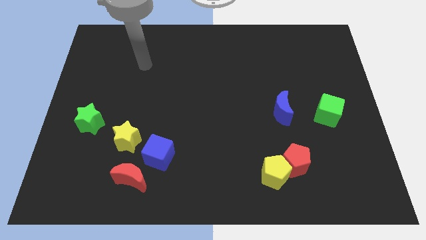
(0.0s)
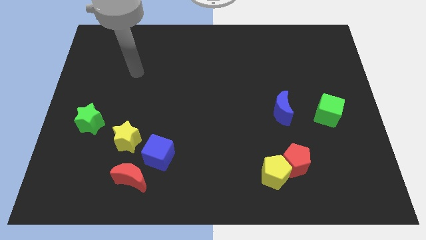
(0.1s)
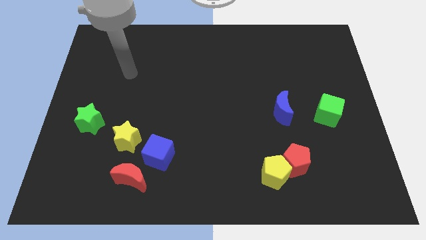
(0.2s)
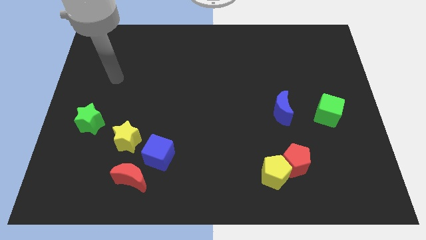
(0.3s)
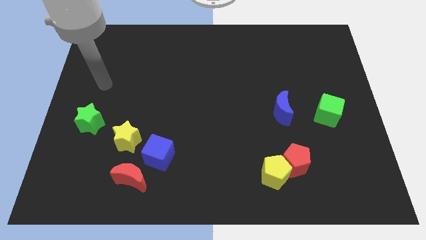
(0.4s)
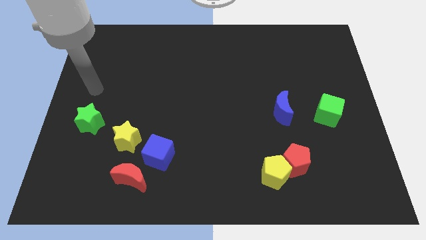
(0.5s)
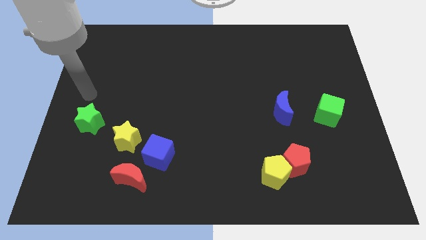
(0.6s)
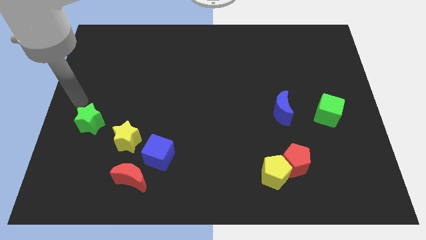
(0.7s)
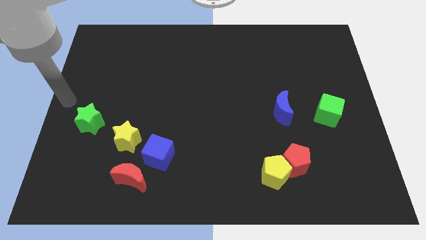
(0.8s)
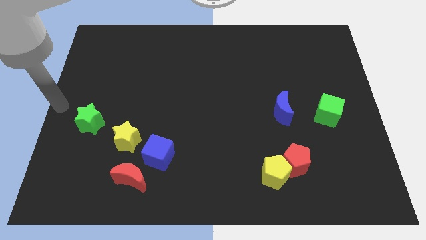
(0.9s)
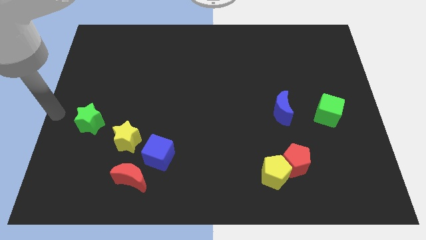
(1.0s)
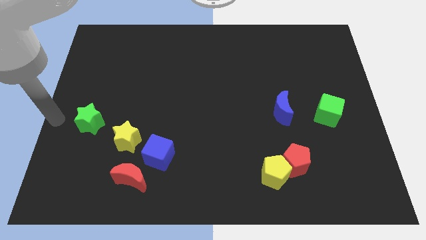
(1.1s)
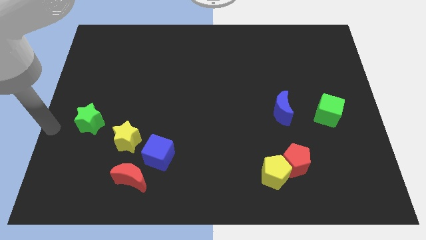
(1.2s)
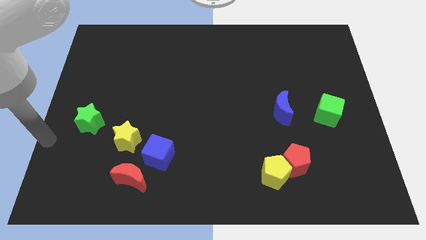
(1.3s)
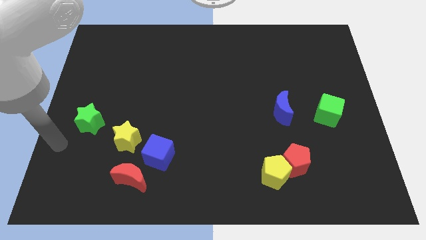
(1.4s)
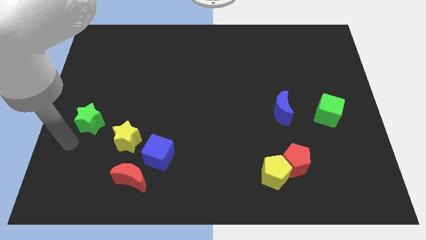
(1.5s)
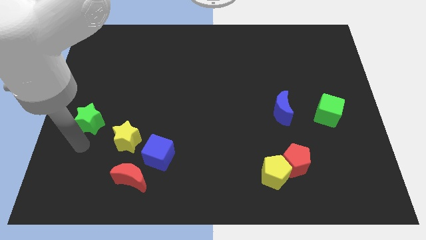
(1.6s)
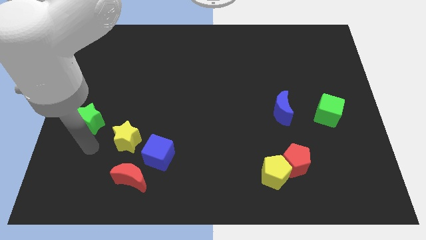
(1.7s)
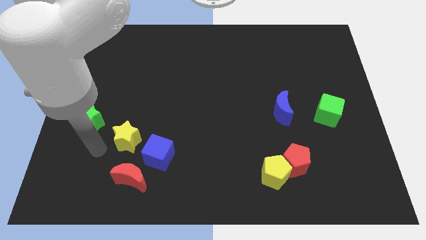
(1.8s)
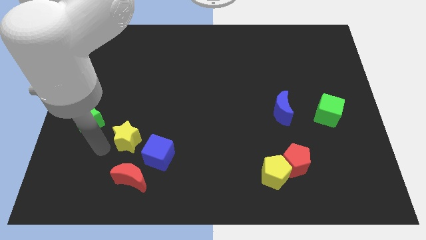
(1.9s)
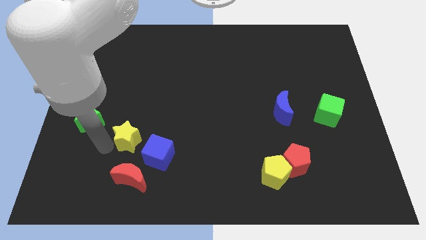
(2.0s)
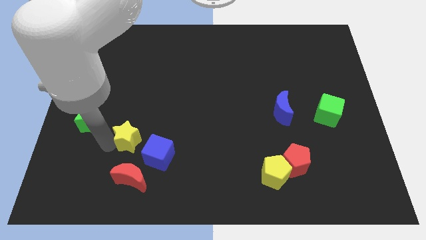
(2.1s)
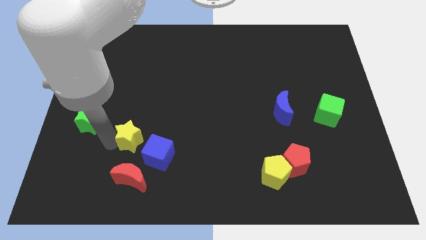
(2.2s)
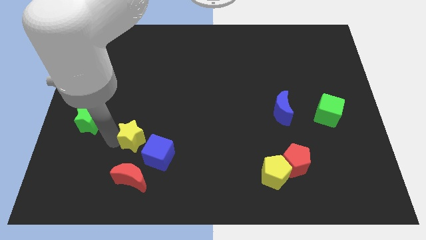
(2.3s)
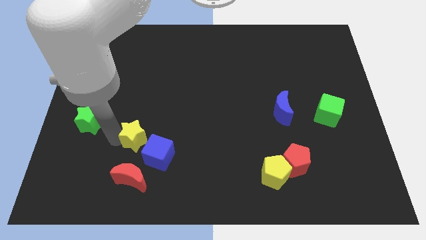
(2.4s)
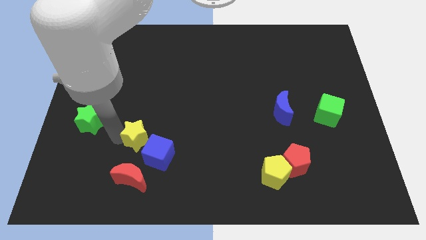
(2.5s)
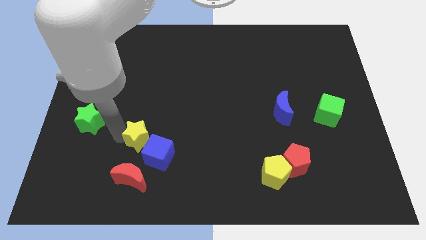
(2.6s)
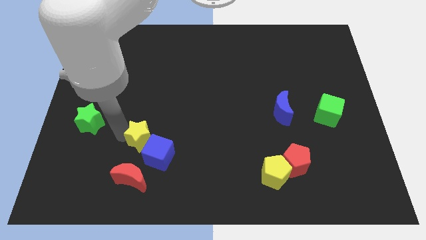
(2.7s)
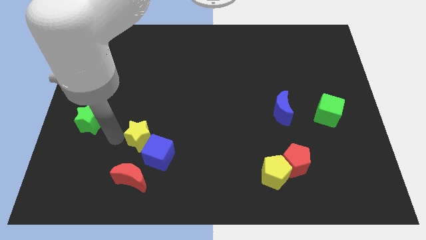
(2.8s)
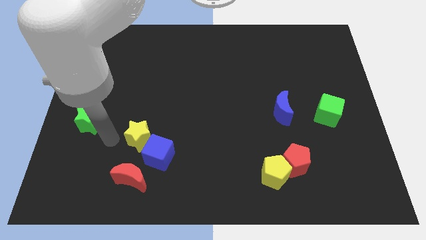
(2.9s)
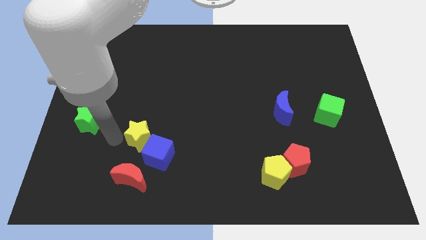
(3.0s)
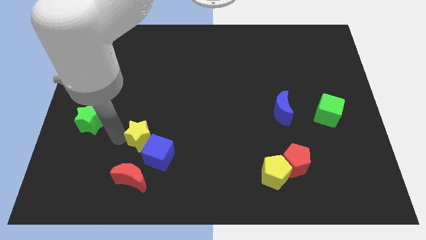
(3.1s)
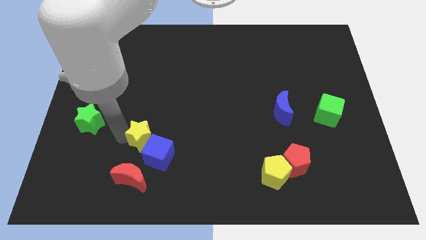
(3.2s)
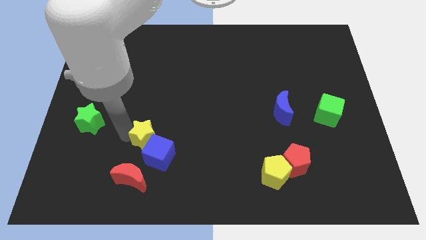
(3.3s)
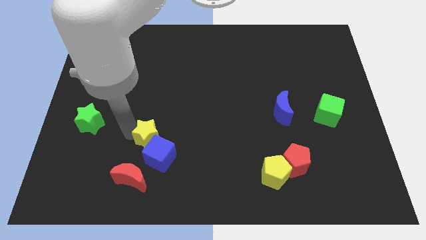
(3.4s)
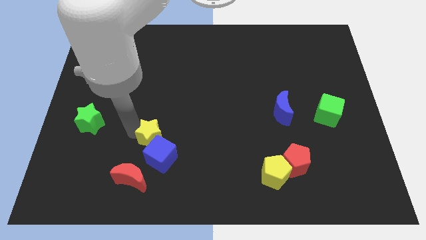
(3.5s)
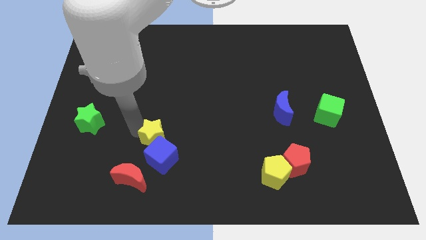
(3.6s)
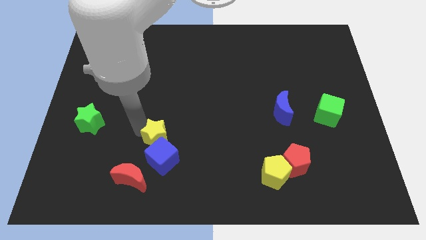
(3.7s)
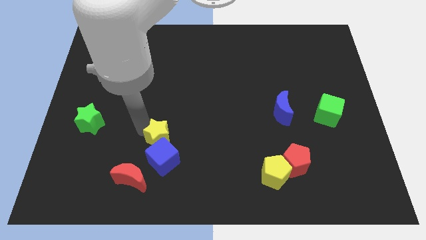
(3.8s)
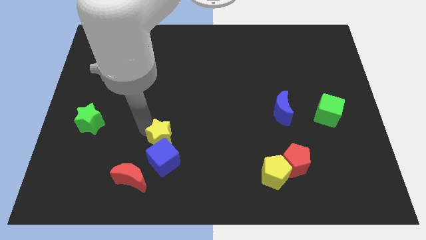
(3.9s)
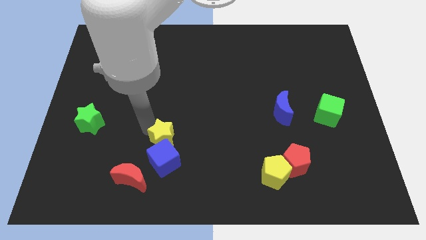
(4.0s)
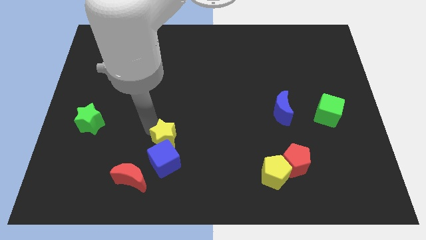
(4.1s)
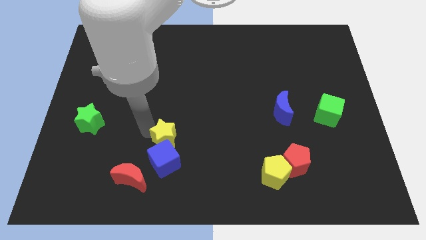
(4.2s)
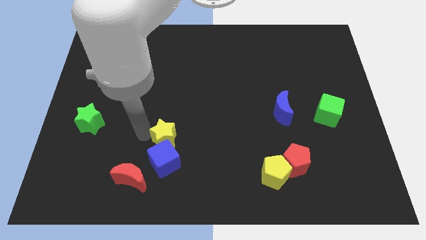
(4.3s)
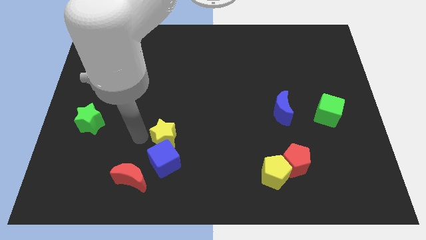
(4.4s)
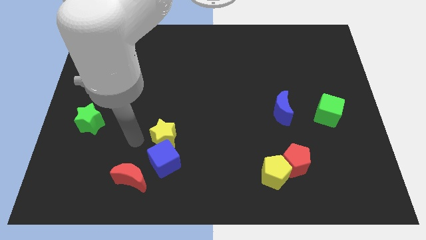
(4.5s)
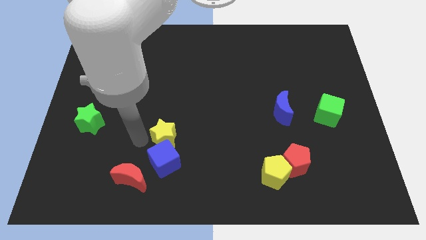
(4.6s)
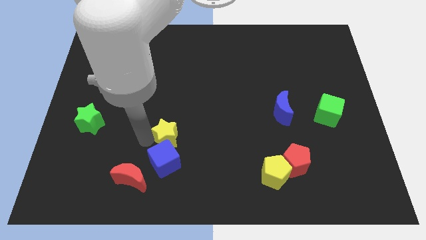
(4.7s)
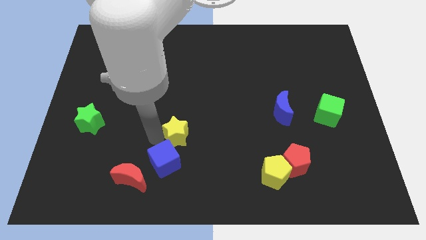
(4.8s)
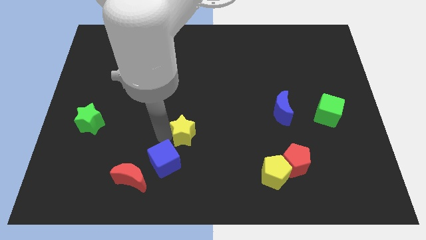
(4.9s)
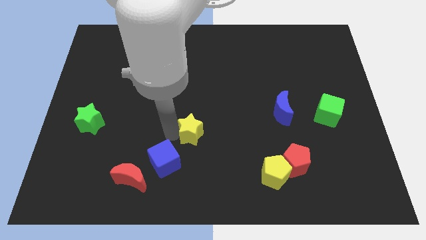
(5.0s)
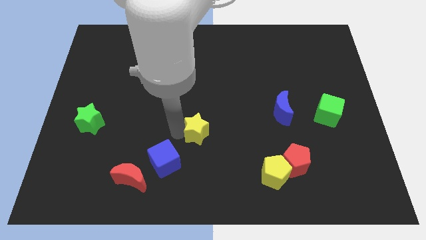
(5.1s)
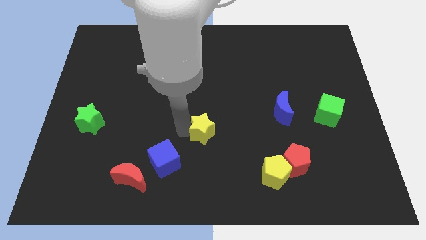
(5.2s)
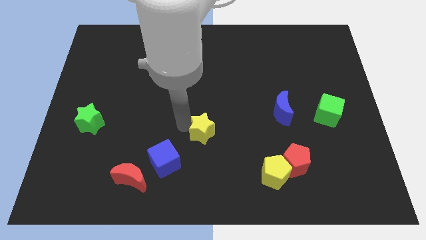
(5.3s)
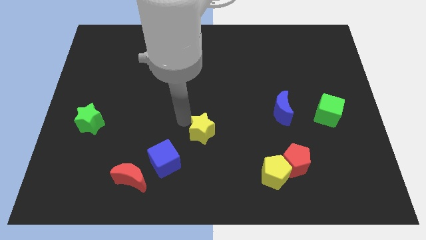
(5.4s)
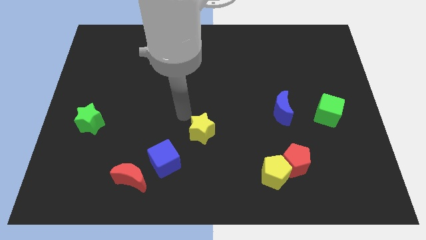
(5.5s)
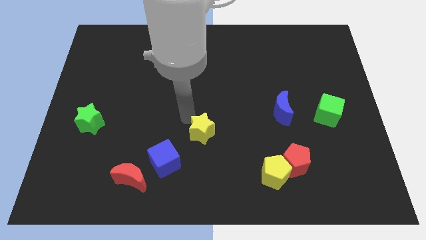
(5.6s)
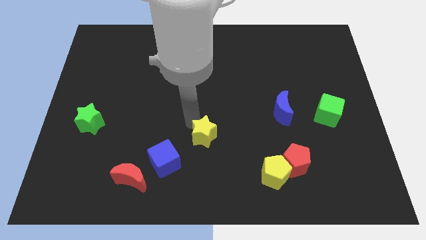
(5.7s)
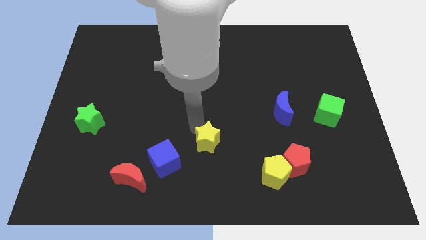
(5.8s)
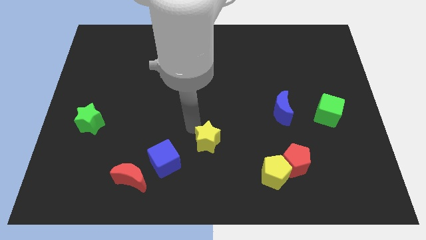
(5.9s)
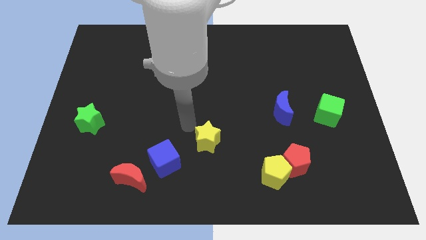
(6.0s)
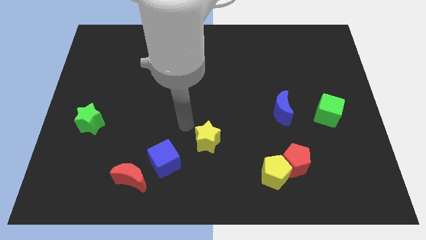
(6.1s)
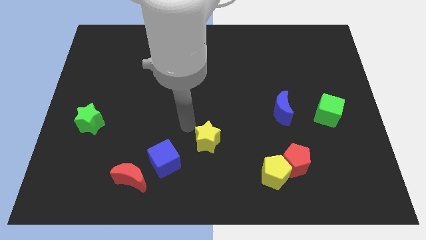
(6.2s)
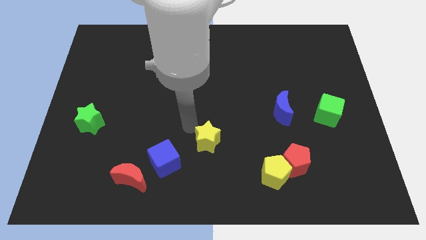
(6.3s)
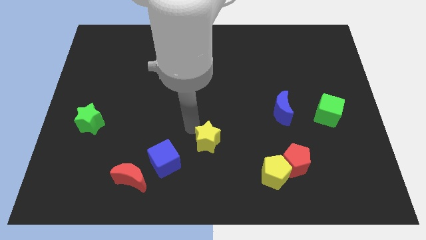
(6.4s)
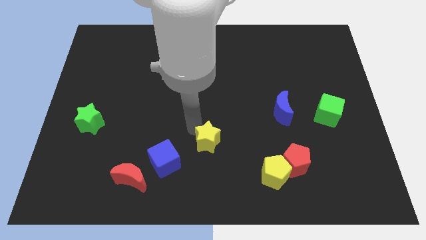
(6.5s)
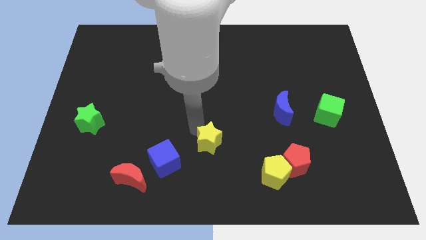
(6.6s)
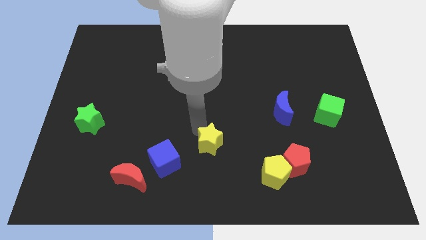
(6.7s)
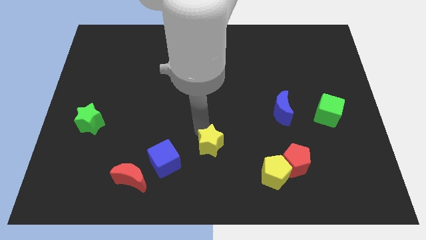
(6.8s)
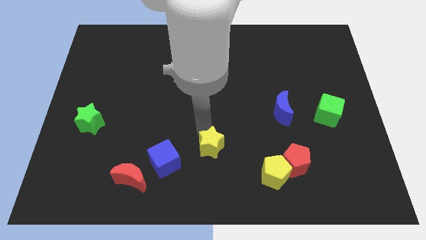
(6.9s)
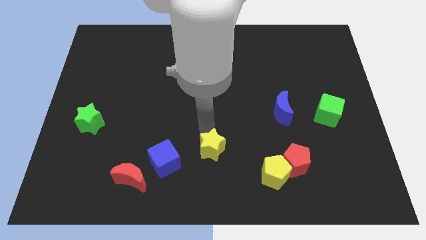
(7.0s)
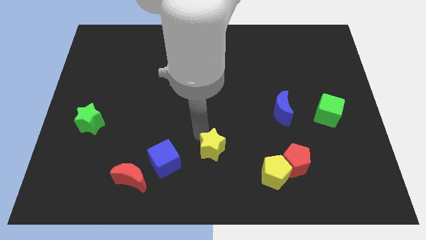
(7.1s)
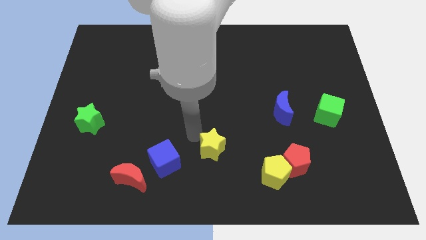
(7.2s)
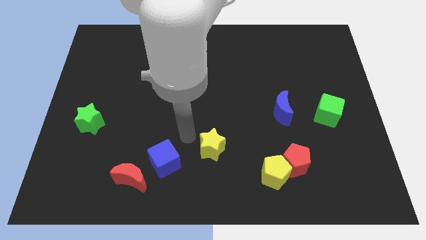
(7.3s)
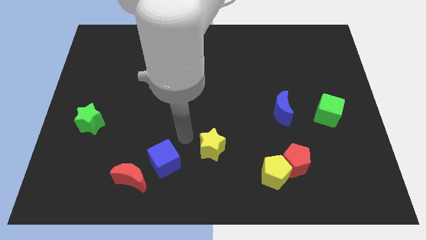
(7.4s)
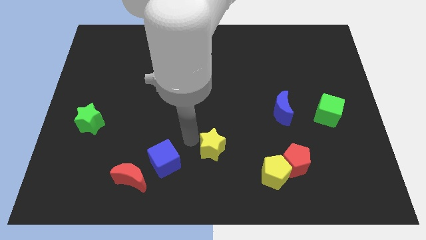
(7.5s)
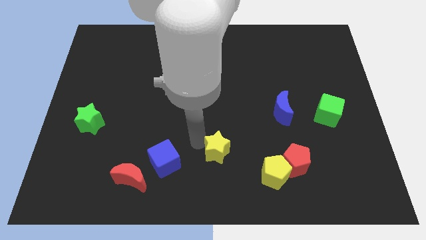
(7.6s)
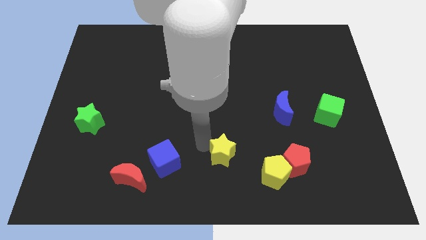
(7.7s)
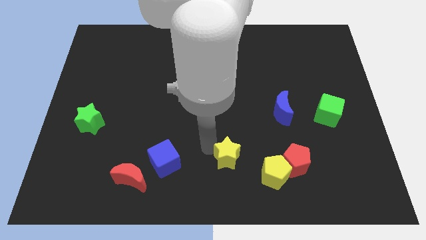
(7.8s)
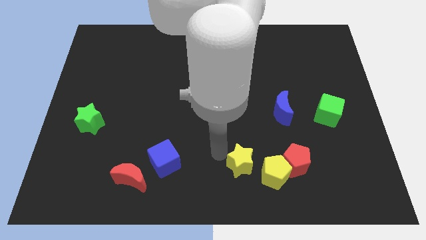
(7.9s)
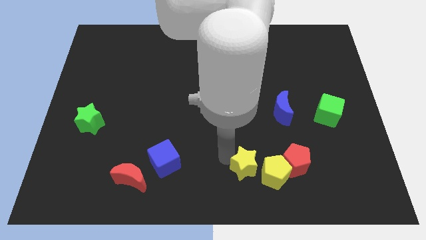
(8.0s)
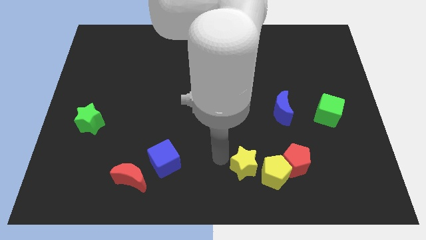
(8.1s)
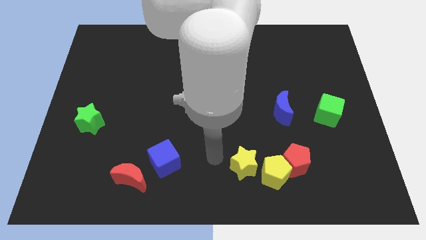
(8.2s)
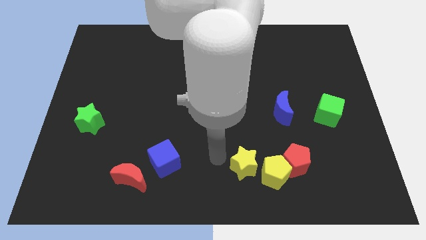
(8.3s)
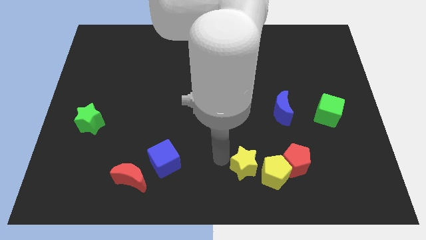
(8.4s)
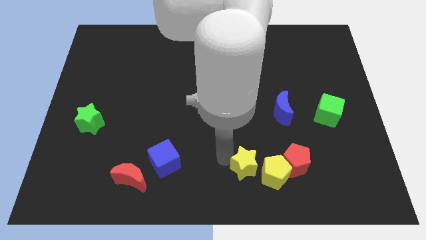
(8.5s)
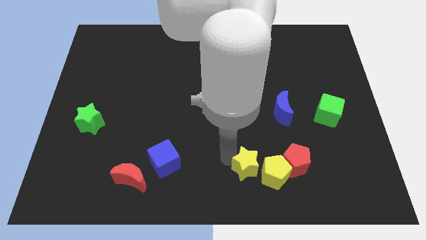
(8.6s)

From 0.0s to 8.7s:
push the yellow star close to the yellow pentagon
